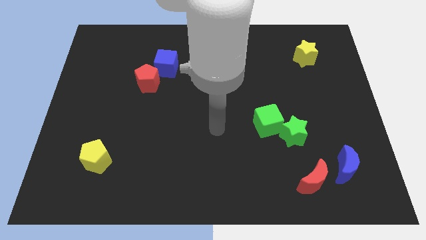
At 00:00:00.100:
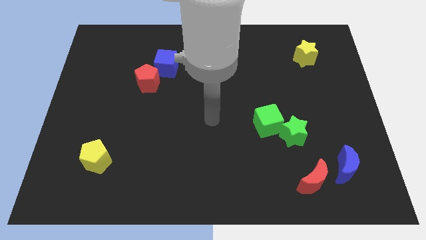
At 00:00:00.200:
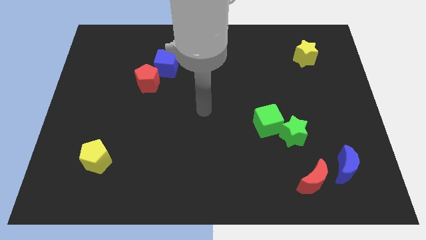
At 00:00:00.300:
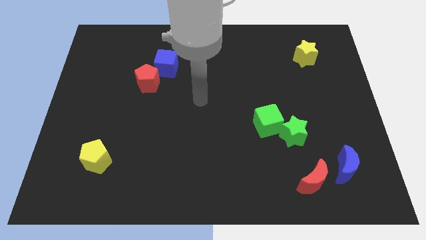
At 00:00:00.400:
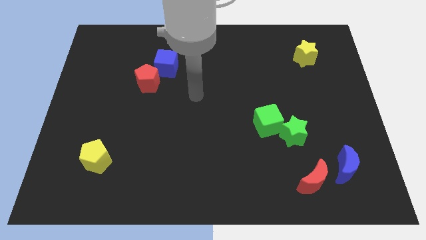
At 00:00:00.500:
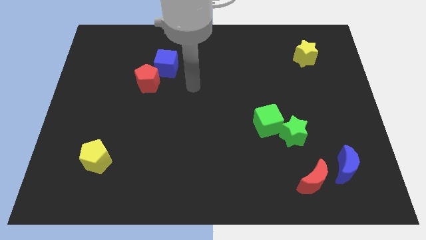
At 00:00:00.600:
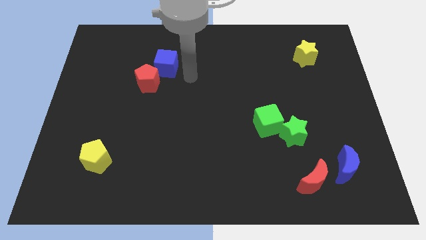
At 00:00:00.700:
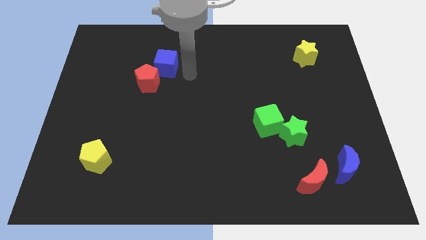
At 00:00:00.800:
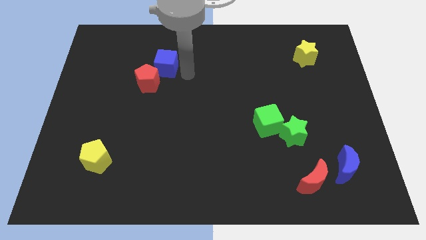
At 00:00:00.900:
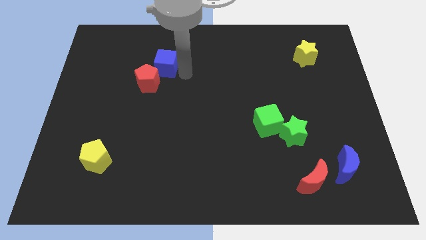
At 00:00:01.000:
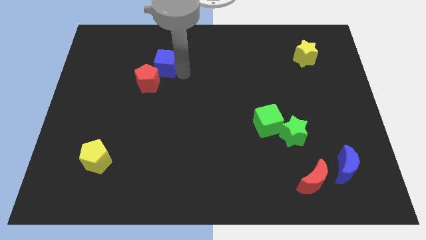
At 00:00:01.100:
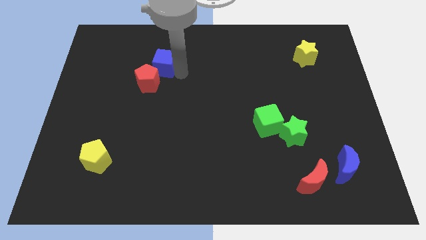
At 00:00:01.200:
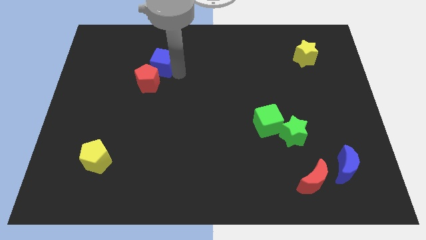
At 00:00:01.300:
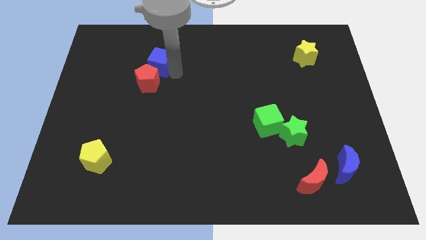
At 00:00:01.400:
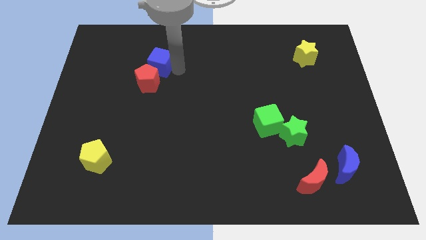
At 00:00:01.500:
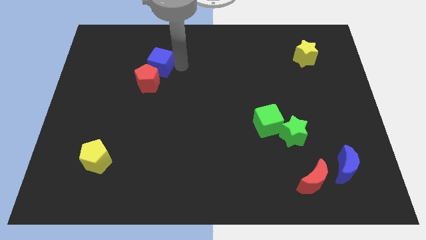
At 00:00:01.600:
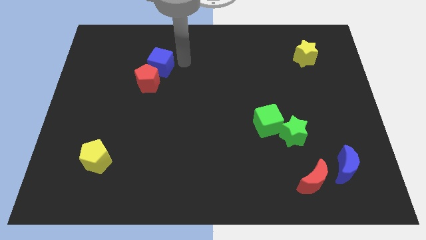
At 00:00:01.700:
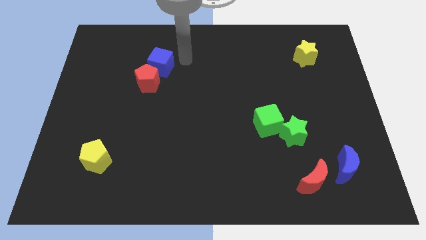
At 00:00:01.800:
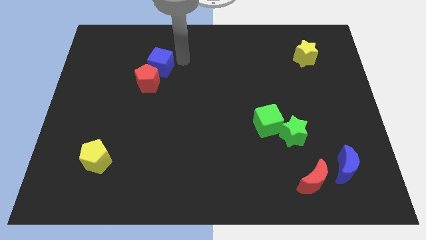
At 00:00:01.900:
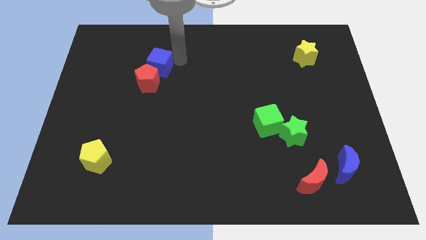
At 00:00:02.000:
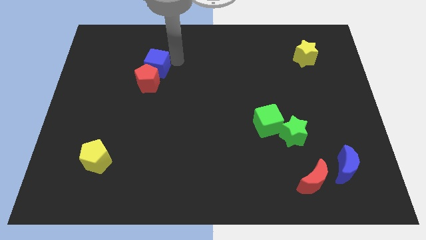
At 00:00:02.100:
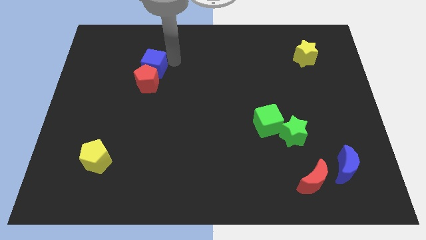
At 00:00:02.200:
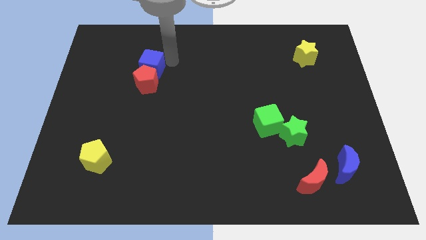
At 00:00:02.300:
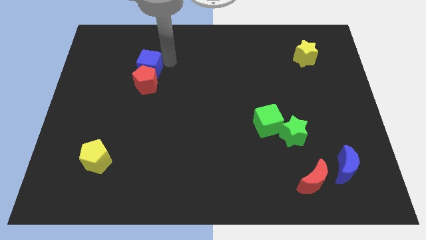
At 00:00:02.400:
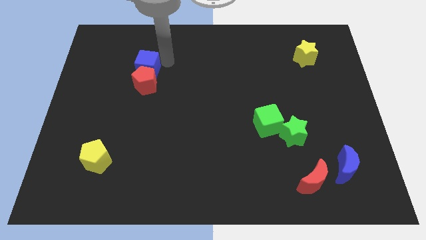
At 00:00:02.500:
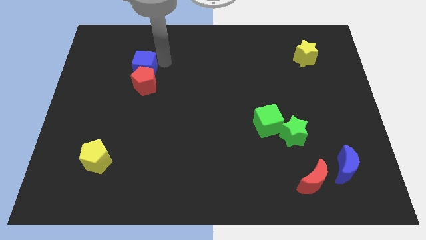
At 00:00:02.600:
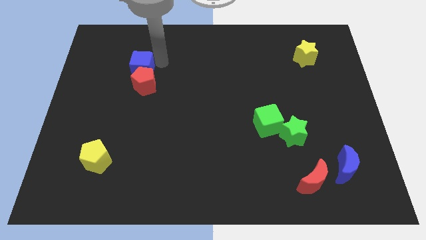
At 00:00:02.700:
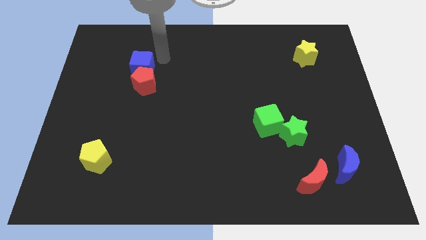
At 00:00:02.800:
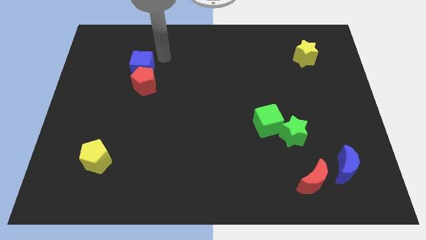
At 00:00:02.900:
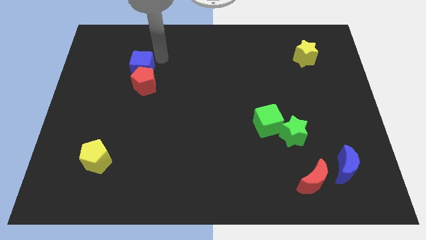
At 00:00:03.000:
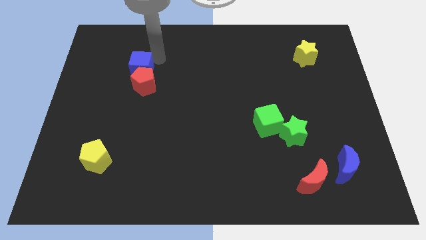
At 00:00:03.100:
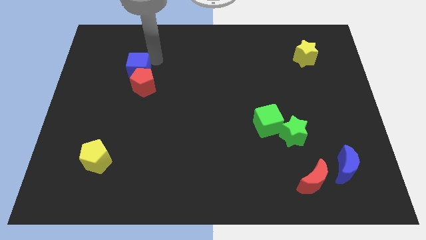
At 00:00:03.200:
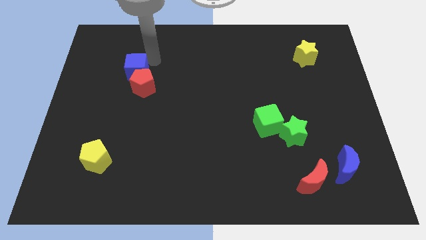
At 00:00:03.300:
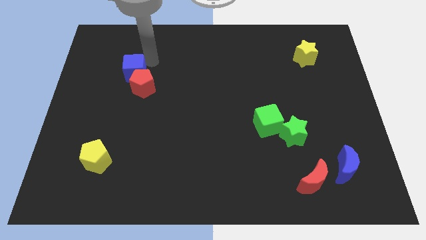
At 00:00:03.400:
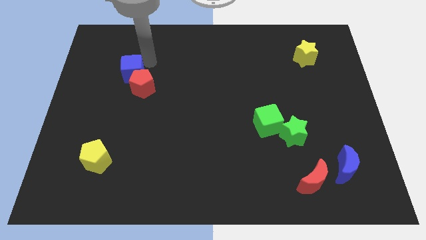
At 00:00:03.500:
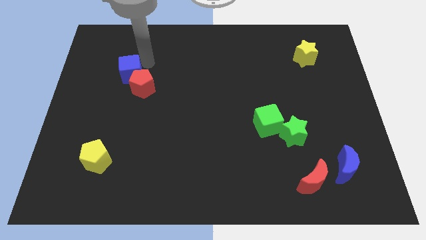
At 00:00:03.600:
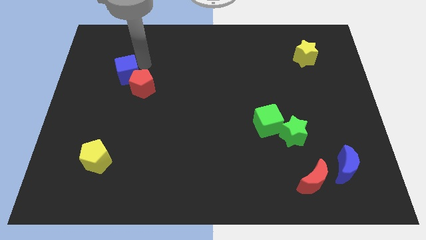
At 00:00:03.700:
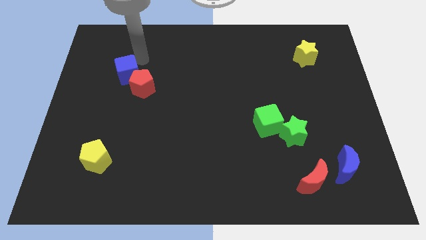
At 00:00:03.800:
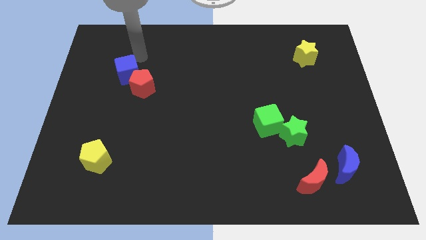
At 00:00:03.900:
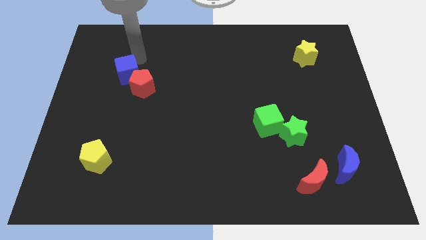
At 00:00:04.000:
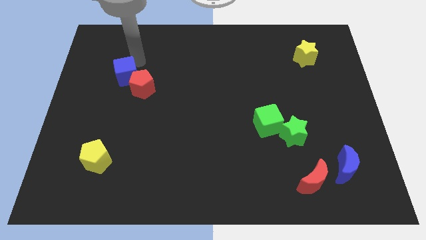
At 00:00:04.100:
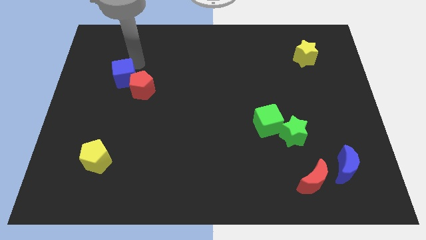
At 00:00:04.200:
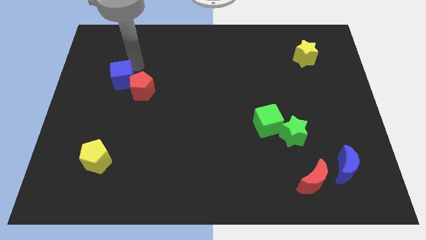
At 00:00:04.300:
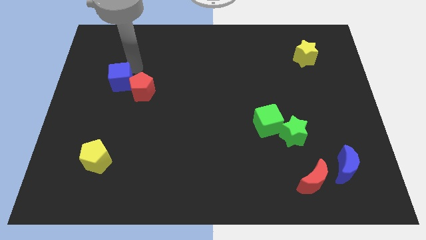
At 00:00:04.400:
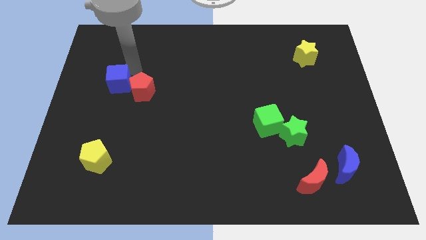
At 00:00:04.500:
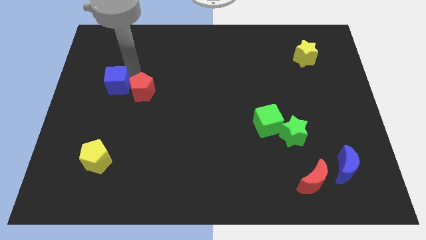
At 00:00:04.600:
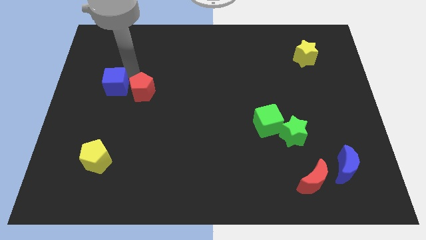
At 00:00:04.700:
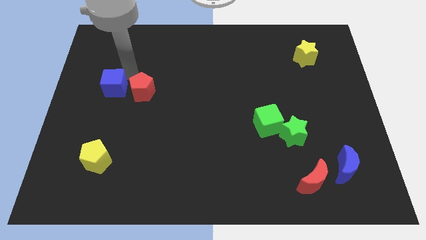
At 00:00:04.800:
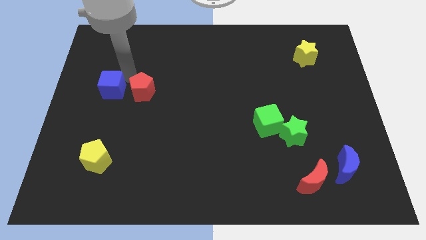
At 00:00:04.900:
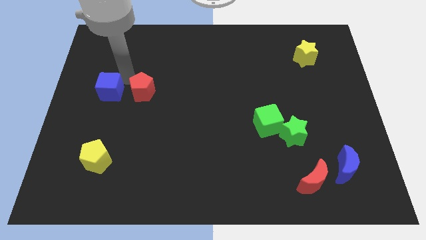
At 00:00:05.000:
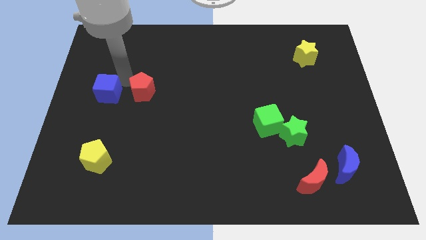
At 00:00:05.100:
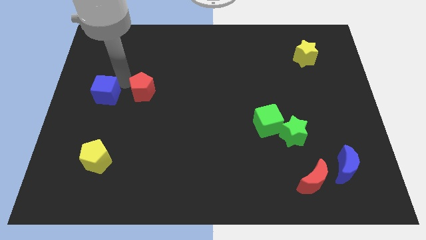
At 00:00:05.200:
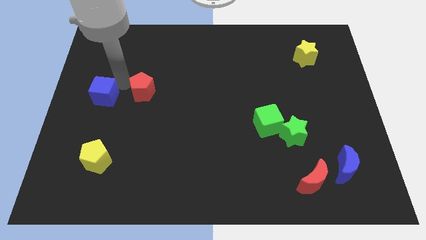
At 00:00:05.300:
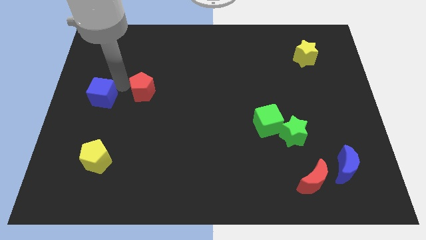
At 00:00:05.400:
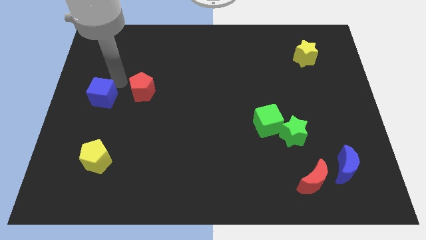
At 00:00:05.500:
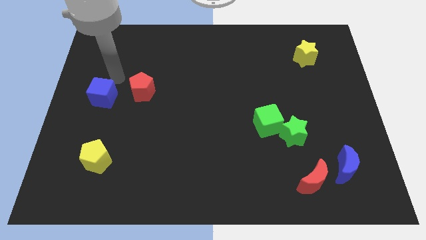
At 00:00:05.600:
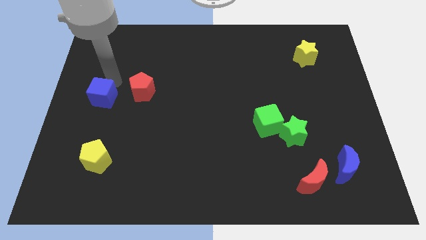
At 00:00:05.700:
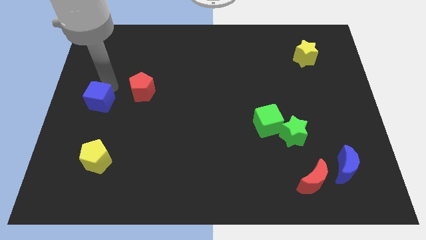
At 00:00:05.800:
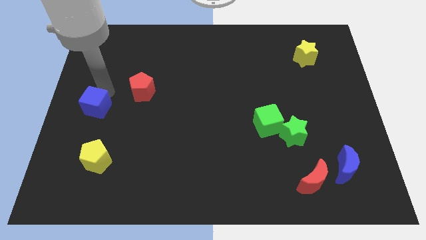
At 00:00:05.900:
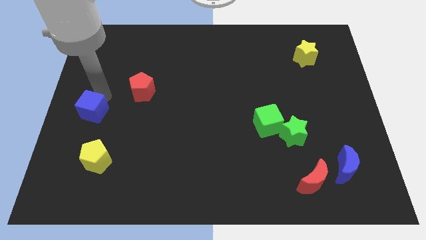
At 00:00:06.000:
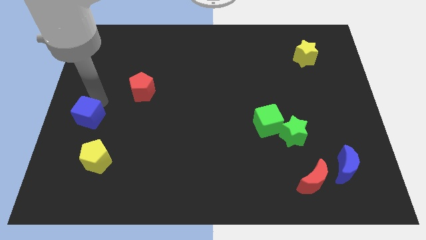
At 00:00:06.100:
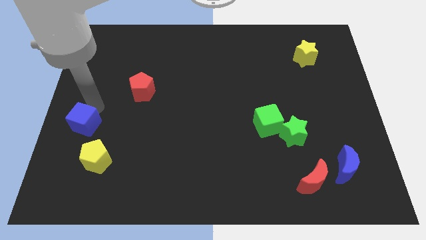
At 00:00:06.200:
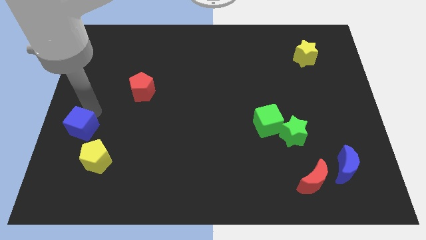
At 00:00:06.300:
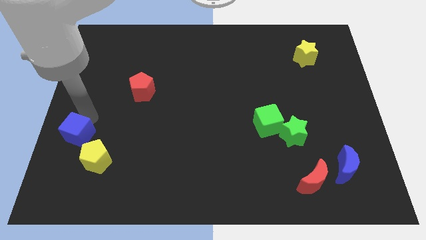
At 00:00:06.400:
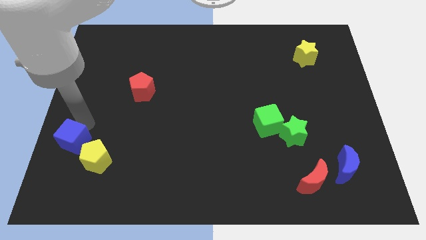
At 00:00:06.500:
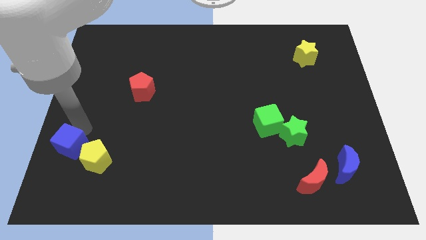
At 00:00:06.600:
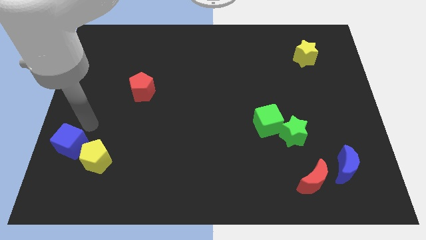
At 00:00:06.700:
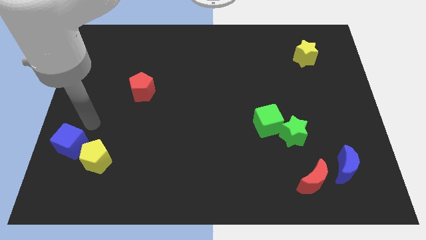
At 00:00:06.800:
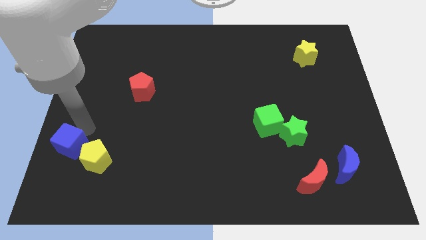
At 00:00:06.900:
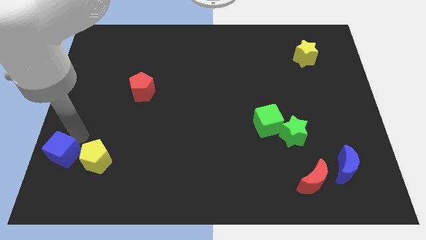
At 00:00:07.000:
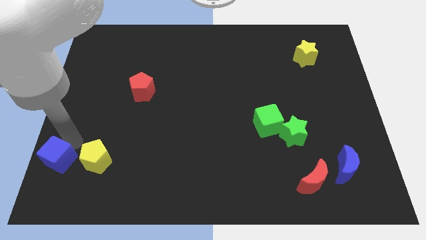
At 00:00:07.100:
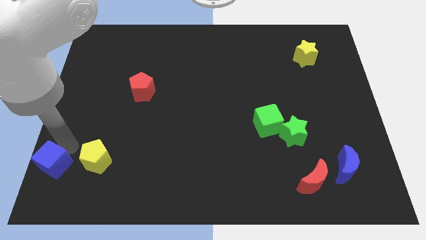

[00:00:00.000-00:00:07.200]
slide the blue cube to the bottom left

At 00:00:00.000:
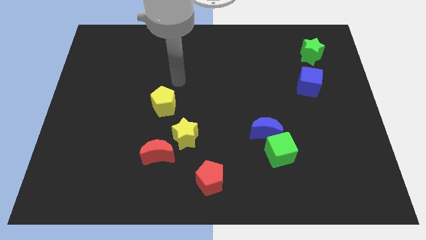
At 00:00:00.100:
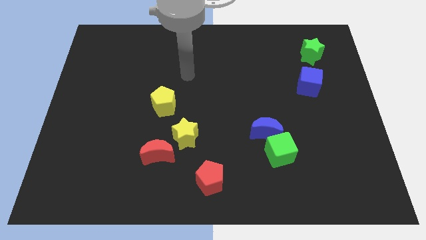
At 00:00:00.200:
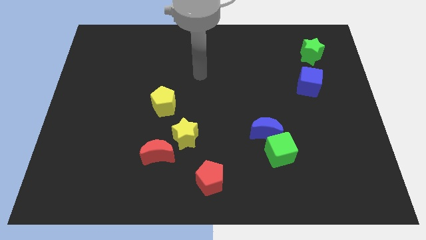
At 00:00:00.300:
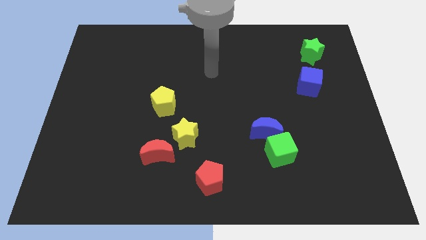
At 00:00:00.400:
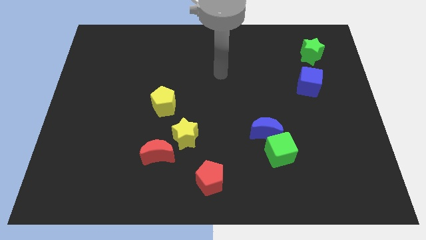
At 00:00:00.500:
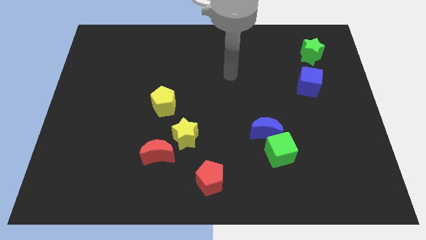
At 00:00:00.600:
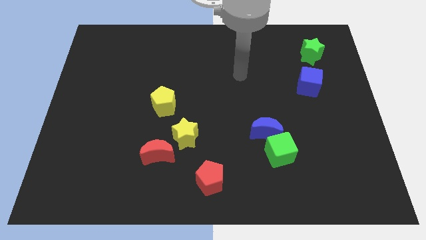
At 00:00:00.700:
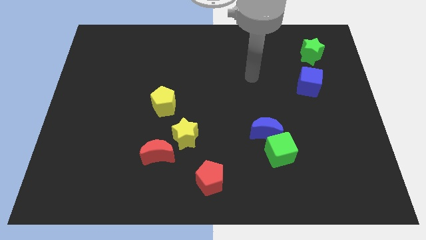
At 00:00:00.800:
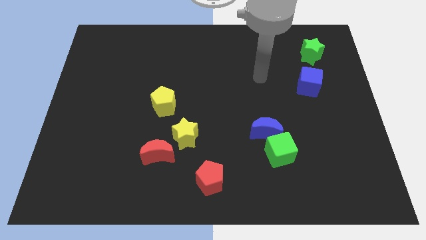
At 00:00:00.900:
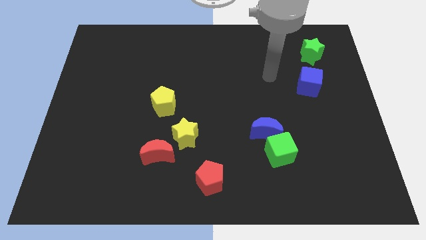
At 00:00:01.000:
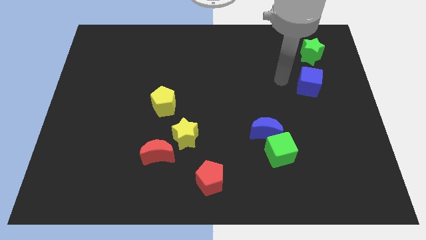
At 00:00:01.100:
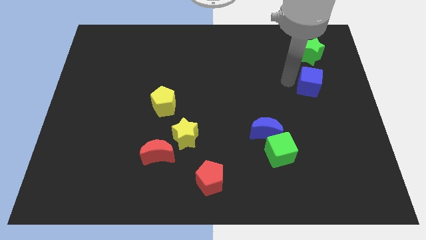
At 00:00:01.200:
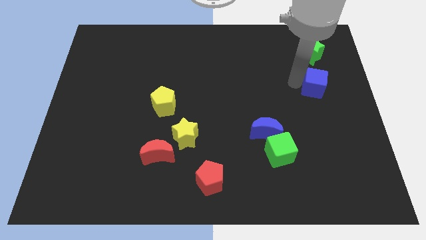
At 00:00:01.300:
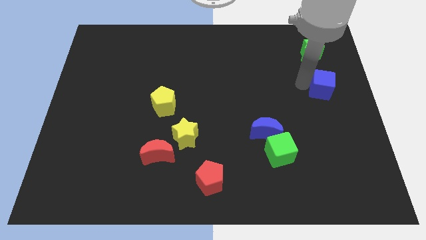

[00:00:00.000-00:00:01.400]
move the blue cube to the right side
